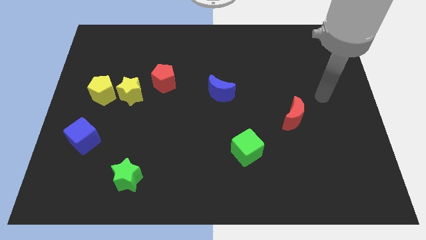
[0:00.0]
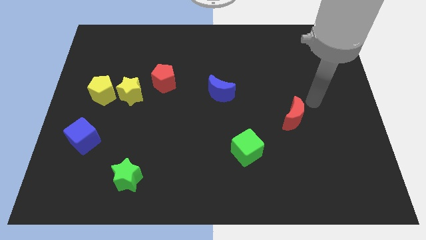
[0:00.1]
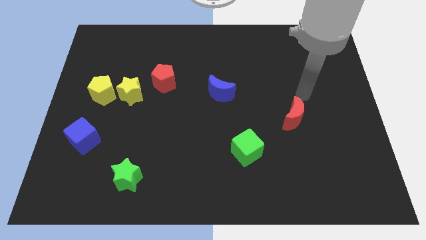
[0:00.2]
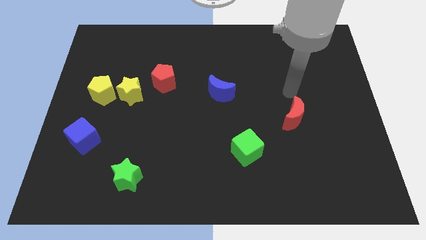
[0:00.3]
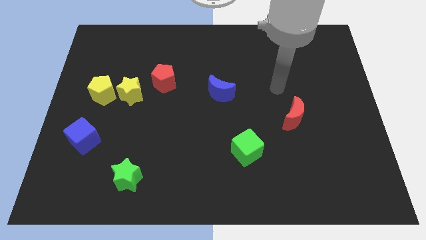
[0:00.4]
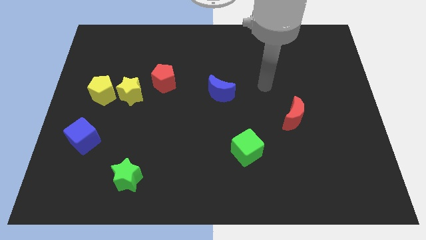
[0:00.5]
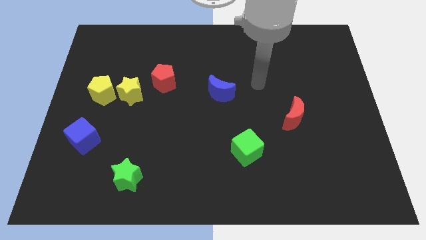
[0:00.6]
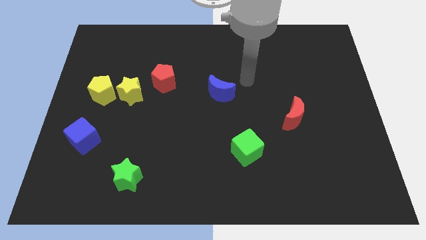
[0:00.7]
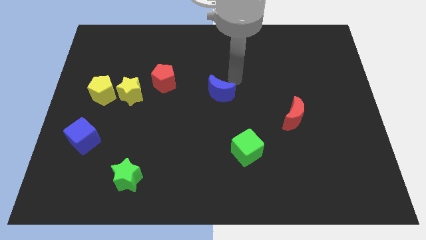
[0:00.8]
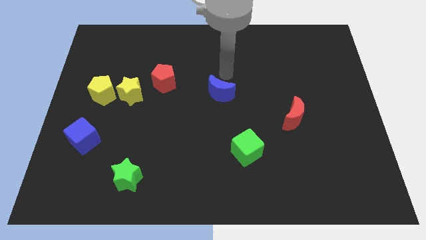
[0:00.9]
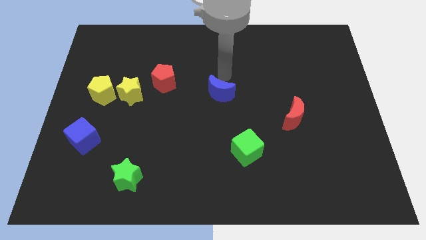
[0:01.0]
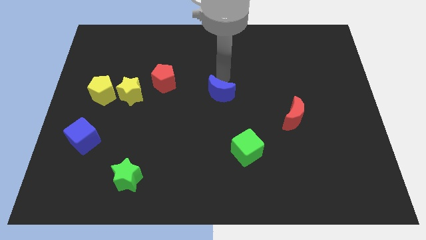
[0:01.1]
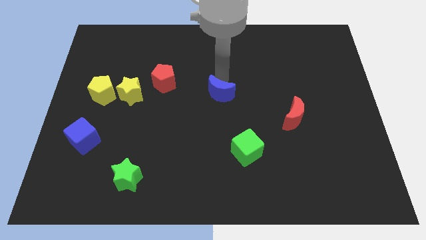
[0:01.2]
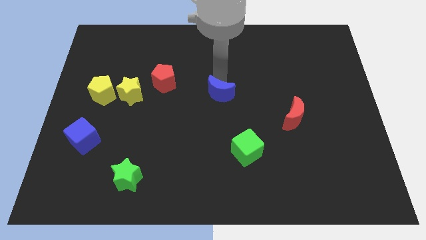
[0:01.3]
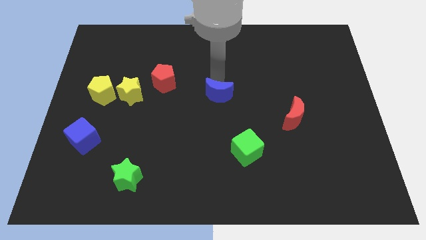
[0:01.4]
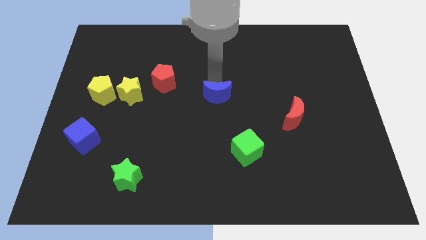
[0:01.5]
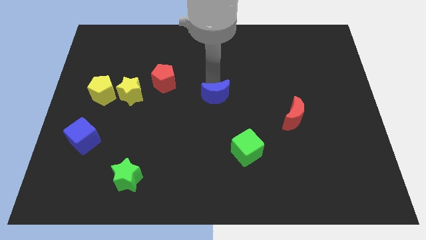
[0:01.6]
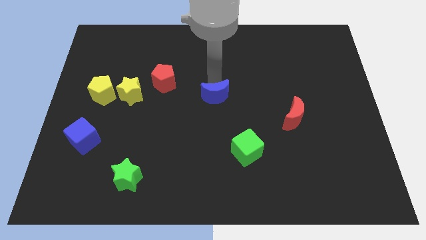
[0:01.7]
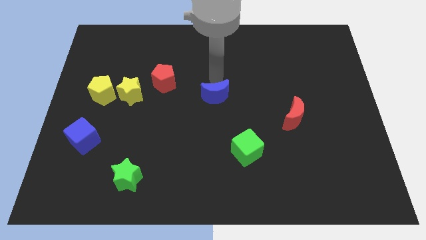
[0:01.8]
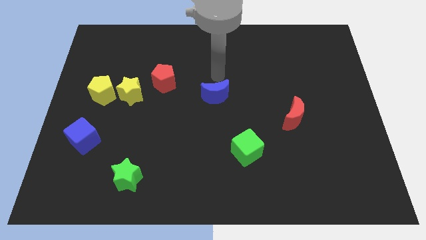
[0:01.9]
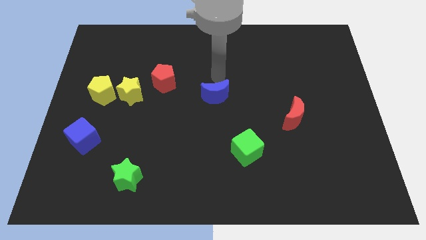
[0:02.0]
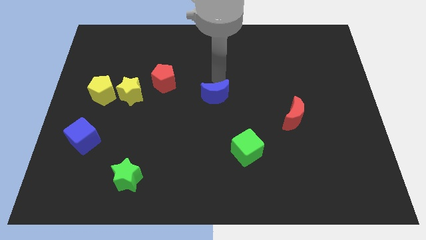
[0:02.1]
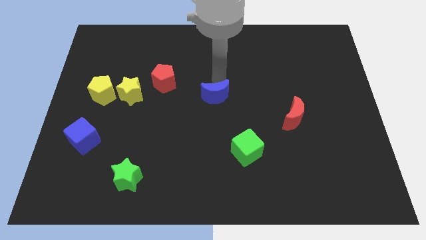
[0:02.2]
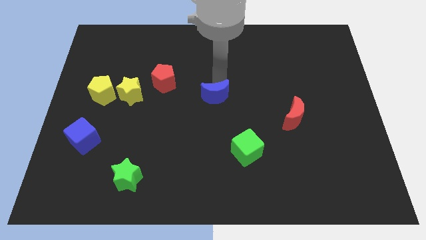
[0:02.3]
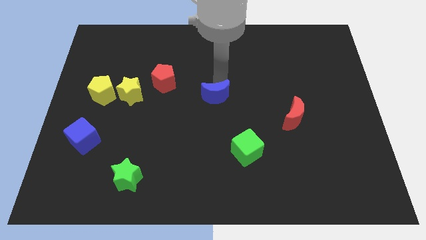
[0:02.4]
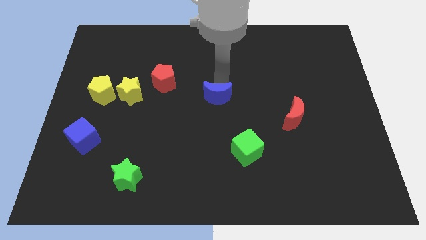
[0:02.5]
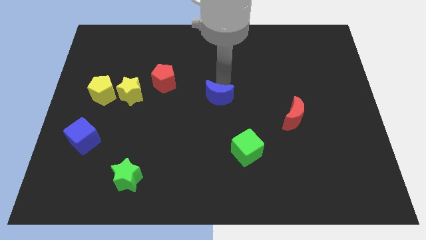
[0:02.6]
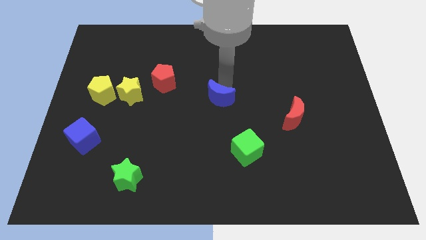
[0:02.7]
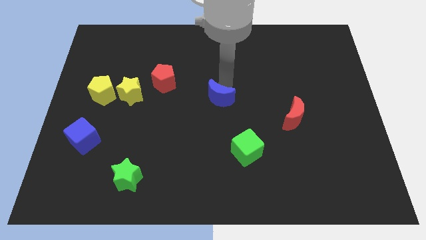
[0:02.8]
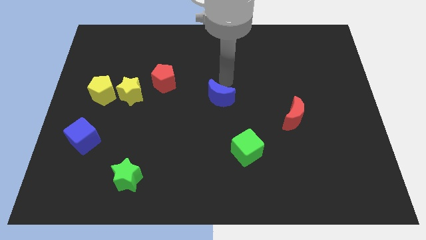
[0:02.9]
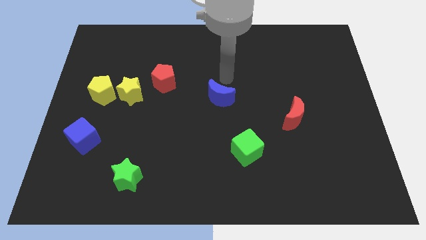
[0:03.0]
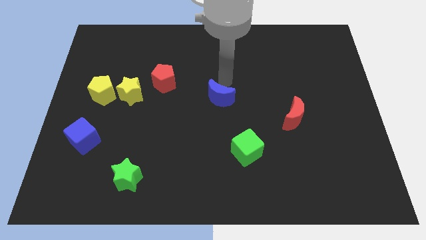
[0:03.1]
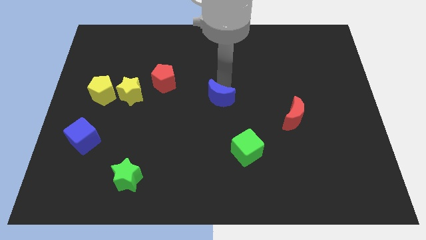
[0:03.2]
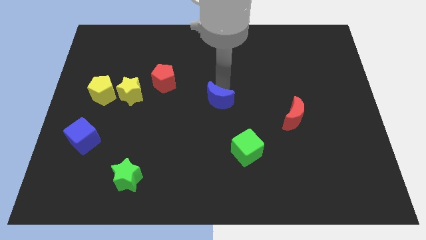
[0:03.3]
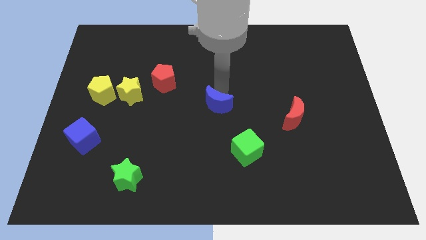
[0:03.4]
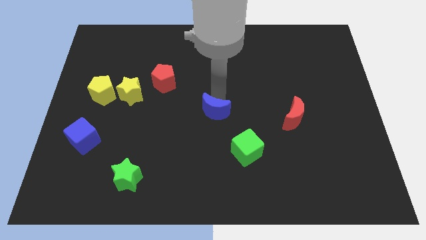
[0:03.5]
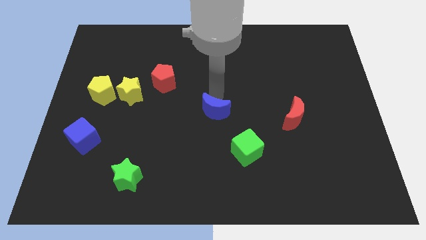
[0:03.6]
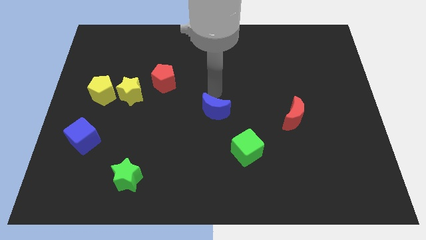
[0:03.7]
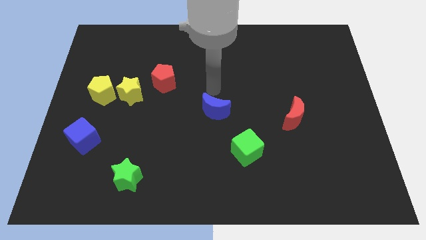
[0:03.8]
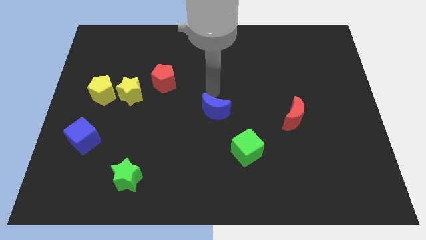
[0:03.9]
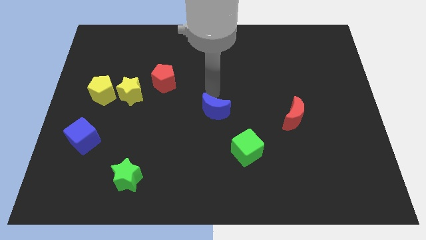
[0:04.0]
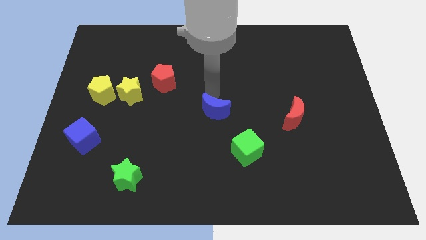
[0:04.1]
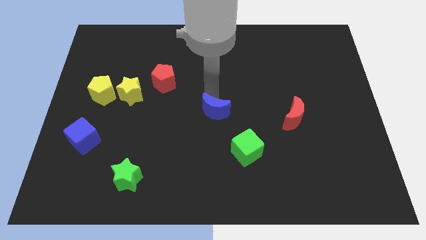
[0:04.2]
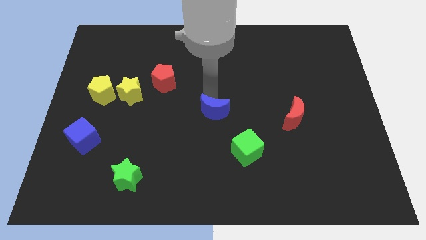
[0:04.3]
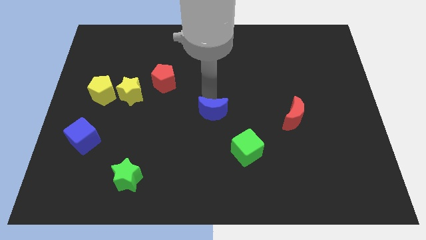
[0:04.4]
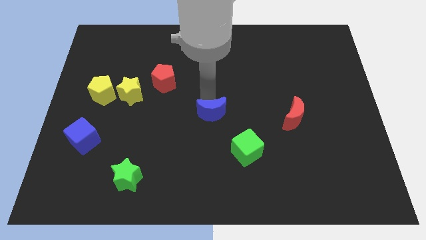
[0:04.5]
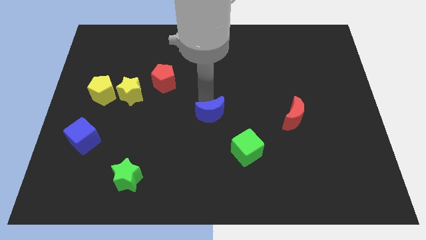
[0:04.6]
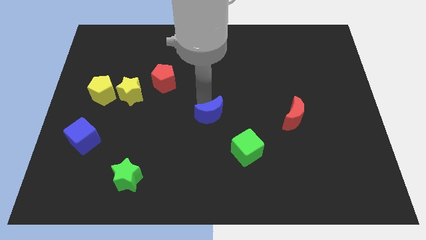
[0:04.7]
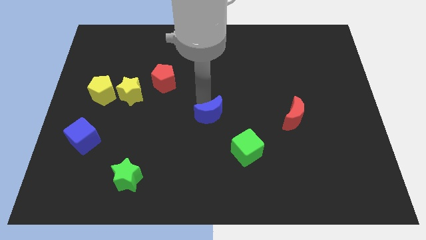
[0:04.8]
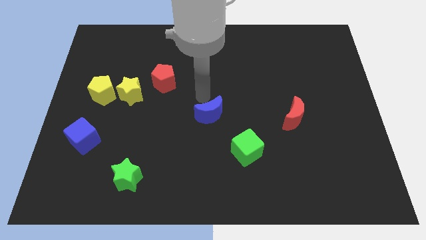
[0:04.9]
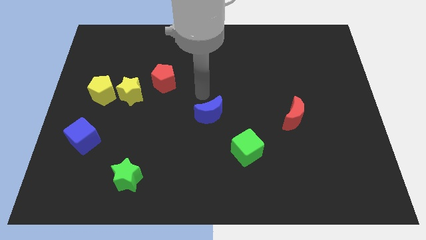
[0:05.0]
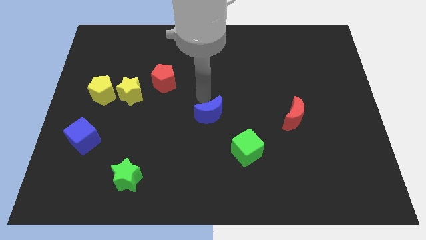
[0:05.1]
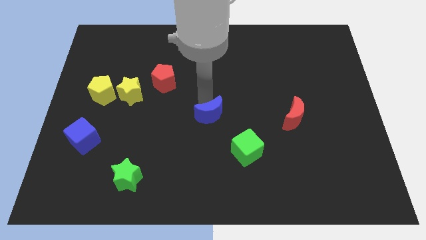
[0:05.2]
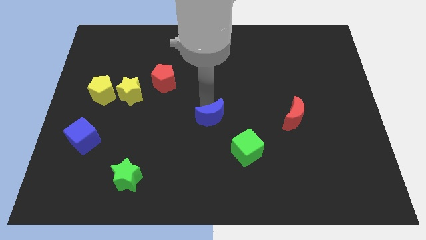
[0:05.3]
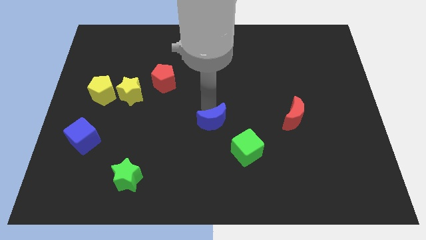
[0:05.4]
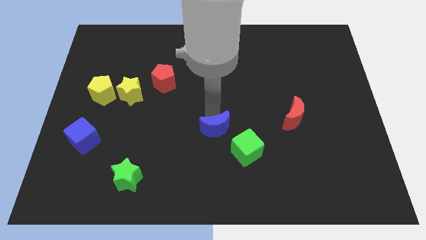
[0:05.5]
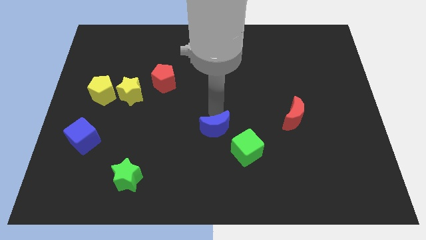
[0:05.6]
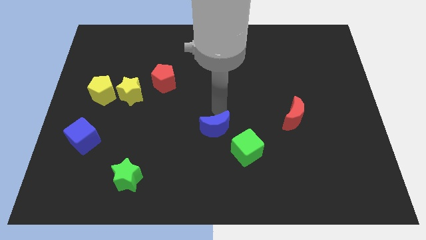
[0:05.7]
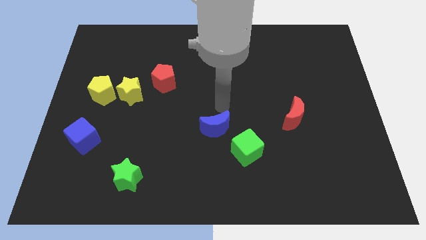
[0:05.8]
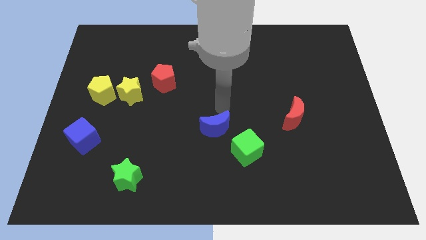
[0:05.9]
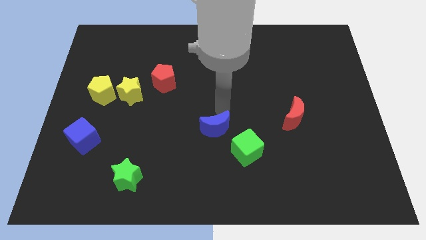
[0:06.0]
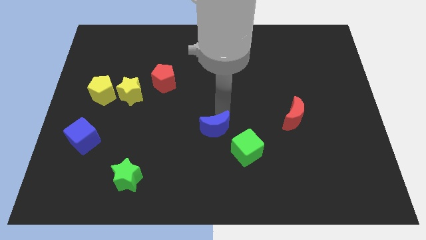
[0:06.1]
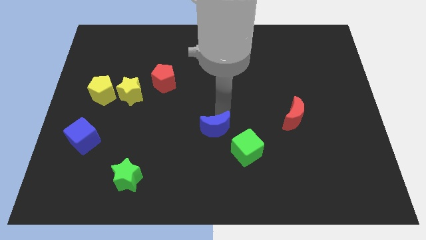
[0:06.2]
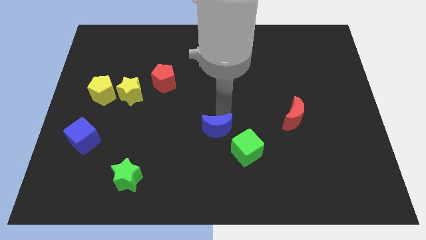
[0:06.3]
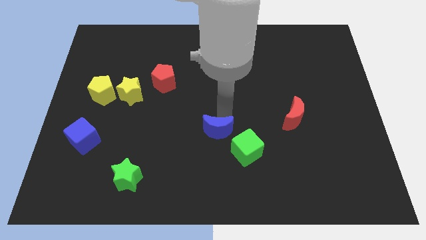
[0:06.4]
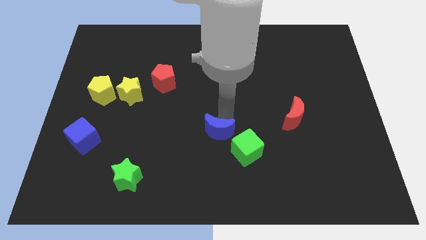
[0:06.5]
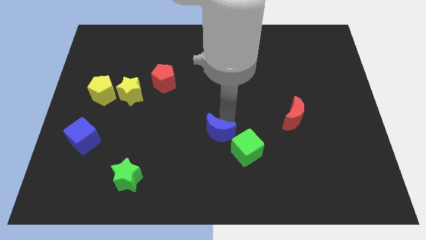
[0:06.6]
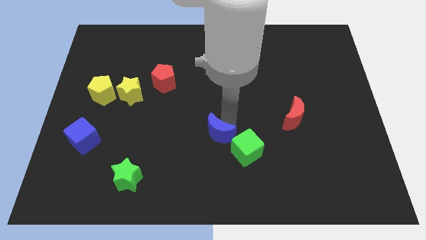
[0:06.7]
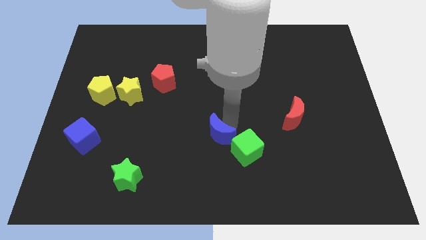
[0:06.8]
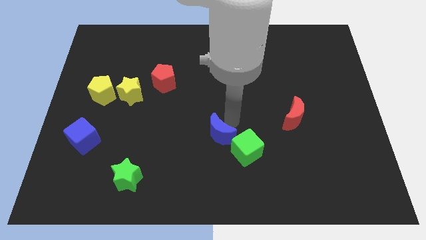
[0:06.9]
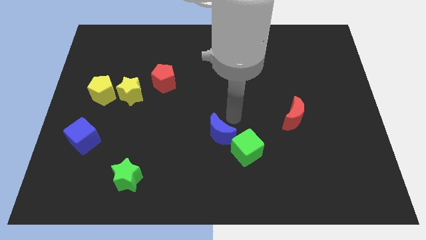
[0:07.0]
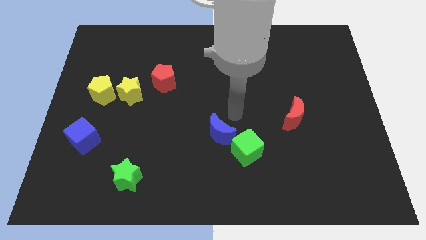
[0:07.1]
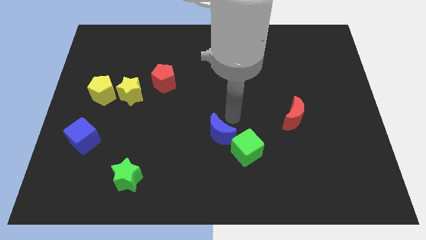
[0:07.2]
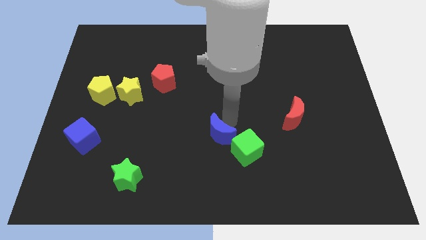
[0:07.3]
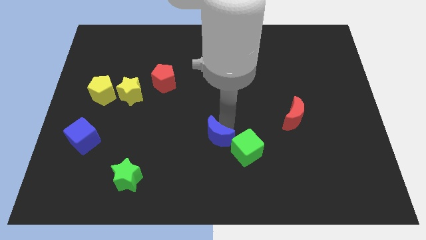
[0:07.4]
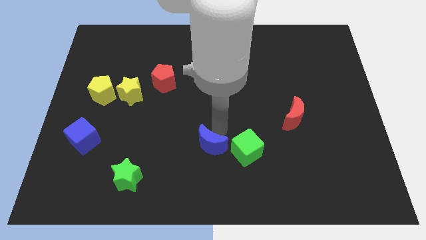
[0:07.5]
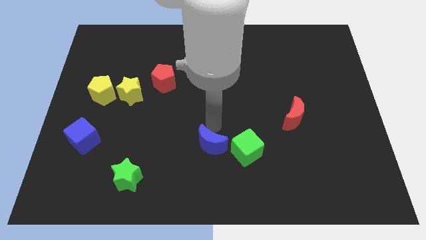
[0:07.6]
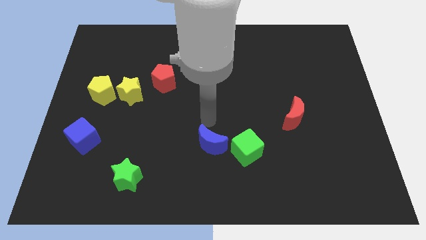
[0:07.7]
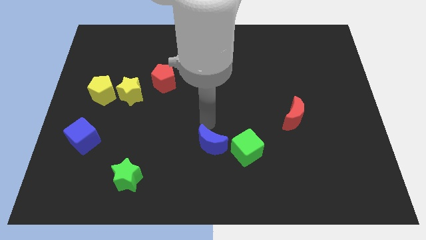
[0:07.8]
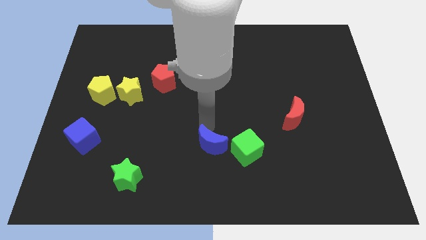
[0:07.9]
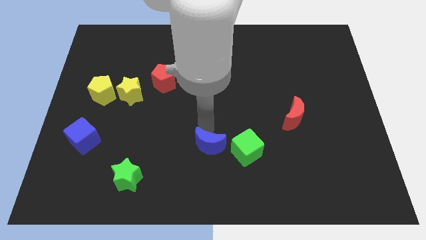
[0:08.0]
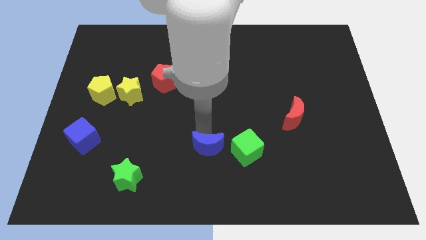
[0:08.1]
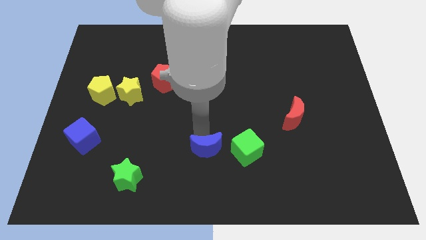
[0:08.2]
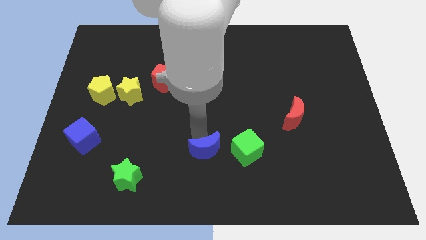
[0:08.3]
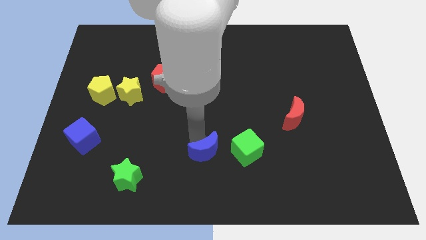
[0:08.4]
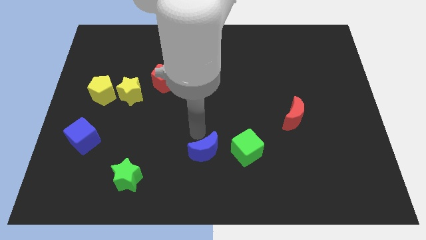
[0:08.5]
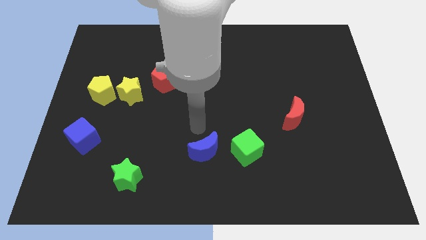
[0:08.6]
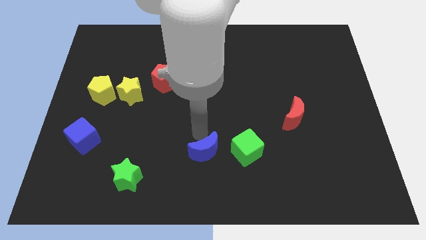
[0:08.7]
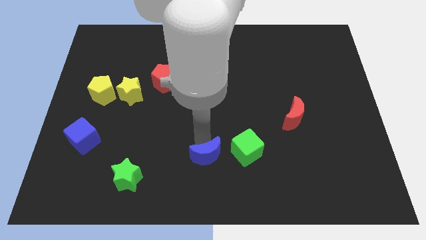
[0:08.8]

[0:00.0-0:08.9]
move the blue moon to the bottom side
